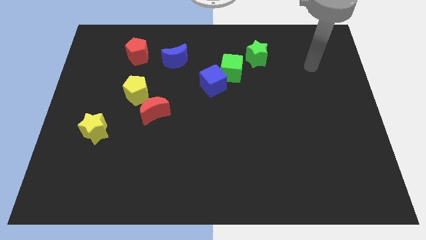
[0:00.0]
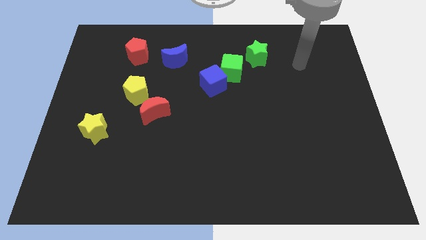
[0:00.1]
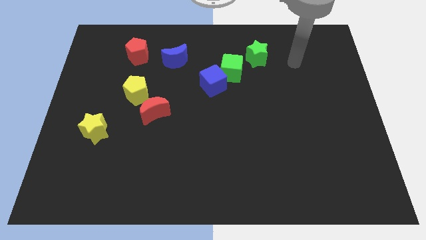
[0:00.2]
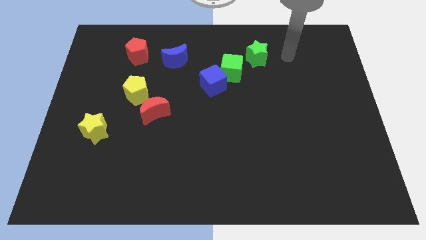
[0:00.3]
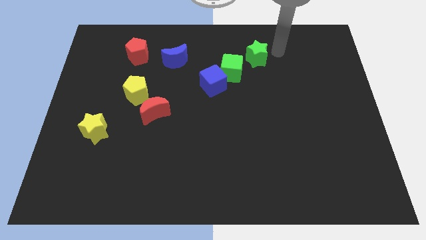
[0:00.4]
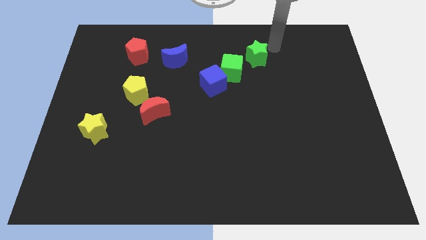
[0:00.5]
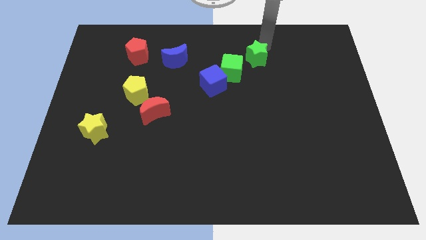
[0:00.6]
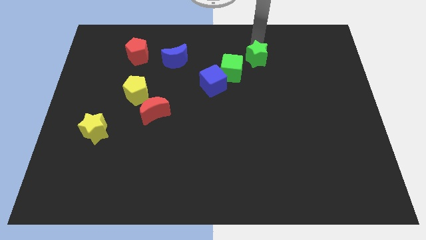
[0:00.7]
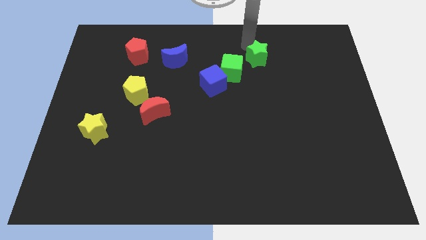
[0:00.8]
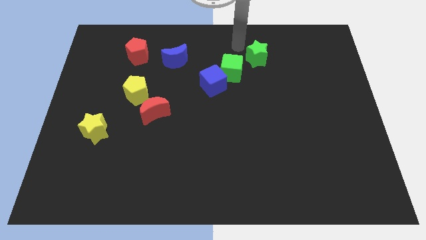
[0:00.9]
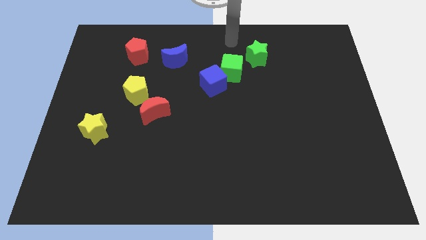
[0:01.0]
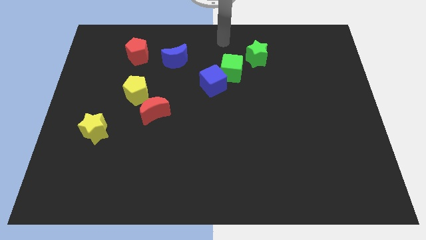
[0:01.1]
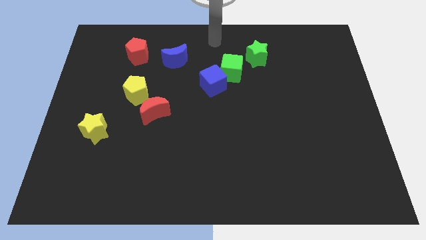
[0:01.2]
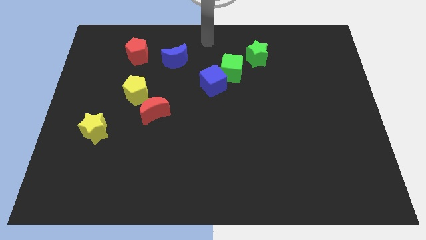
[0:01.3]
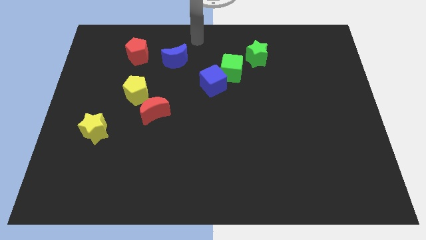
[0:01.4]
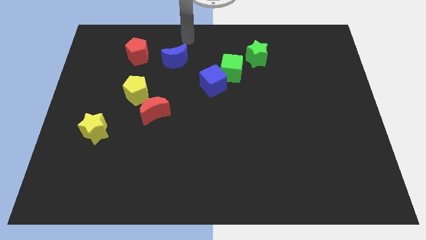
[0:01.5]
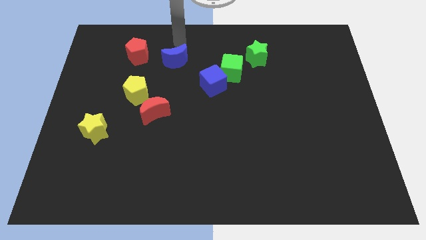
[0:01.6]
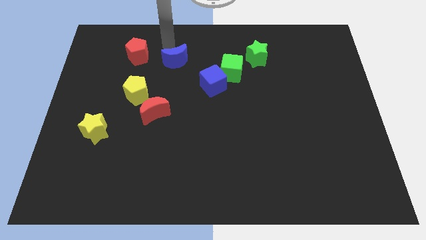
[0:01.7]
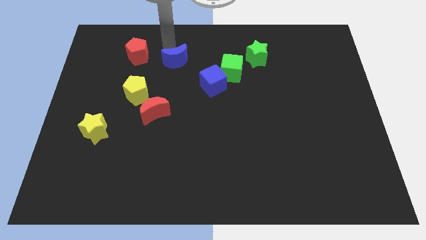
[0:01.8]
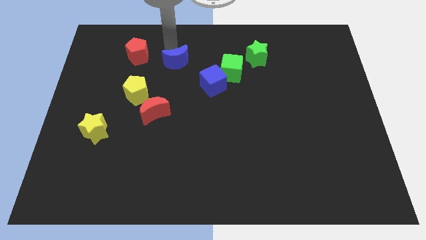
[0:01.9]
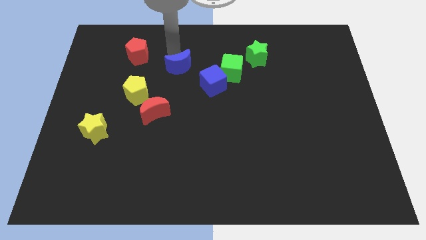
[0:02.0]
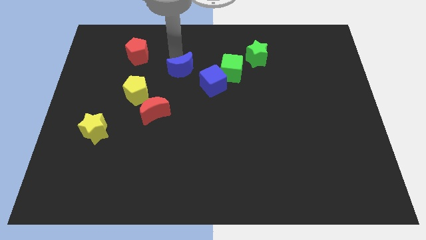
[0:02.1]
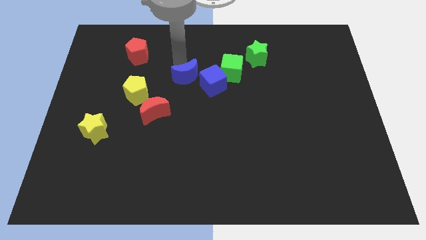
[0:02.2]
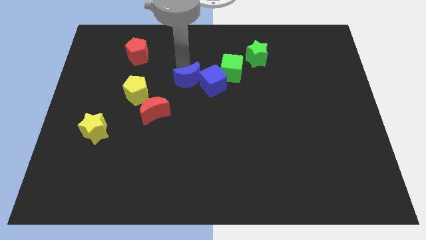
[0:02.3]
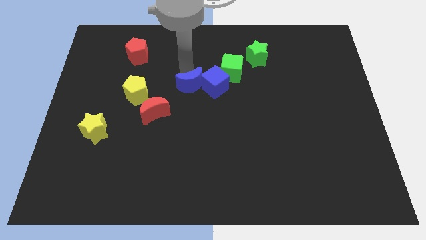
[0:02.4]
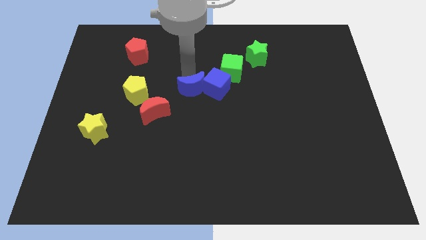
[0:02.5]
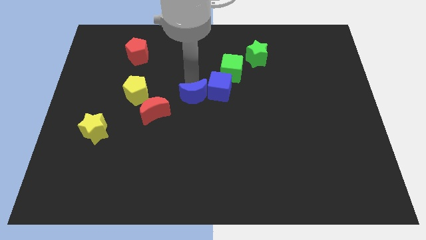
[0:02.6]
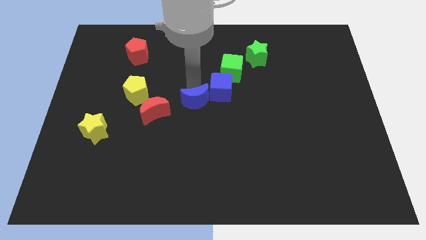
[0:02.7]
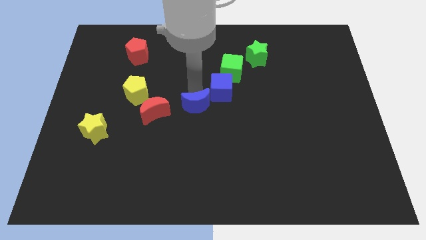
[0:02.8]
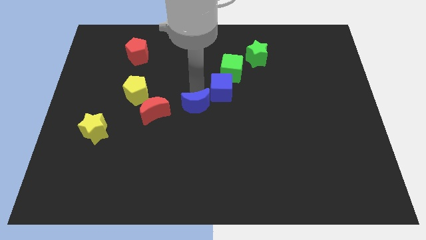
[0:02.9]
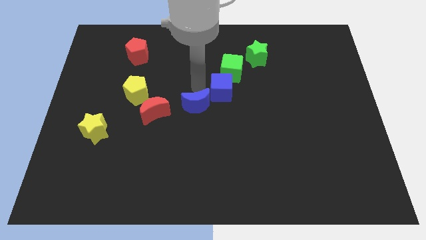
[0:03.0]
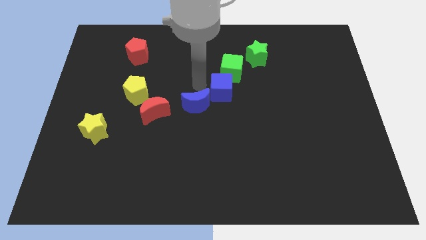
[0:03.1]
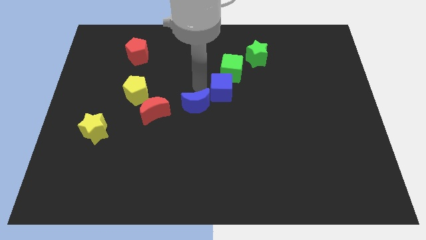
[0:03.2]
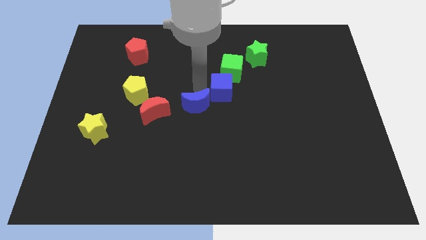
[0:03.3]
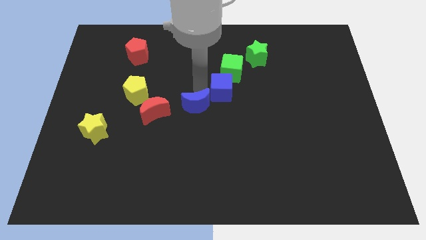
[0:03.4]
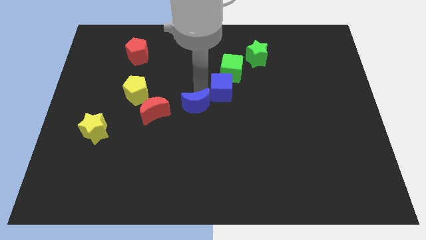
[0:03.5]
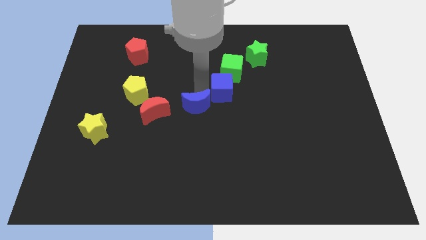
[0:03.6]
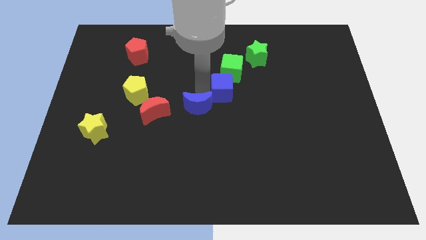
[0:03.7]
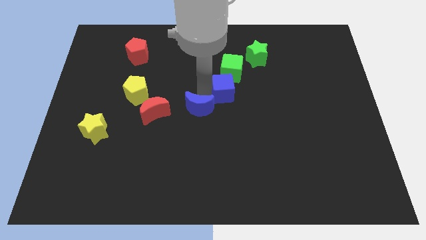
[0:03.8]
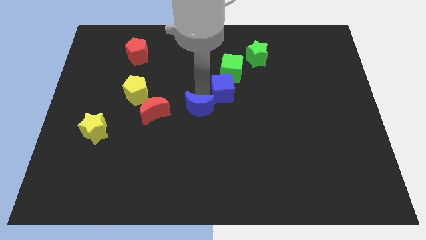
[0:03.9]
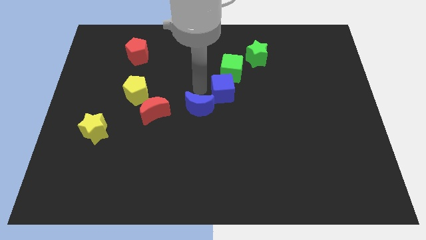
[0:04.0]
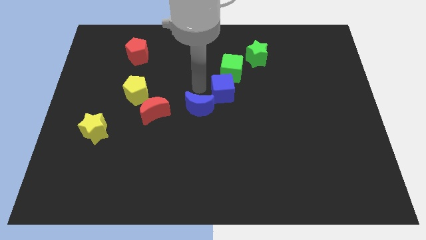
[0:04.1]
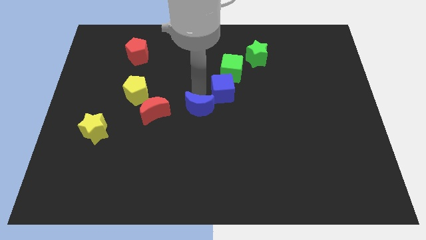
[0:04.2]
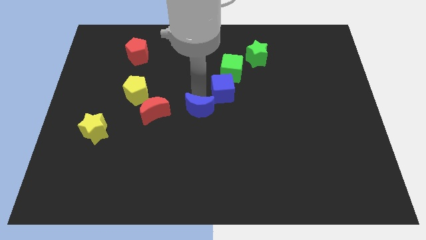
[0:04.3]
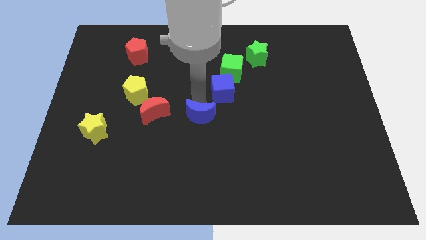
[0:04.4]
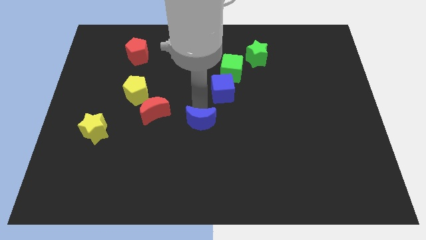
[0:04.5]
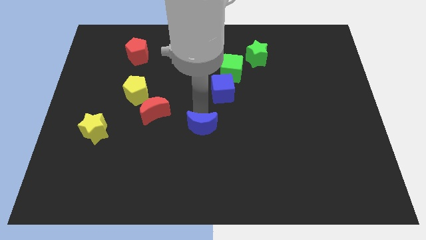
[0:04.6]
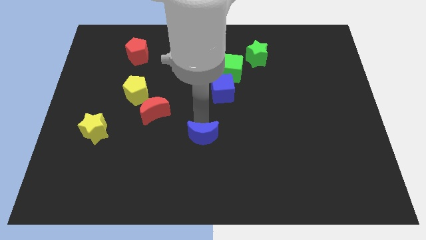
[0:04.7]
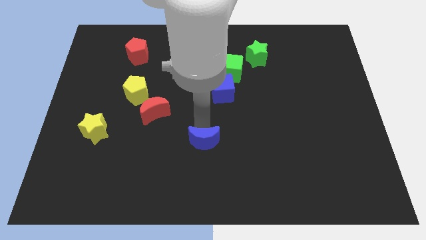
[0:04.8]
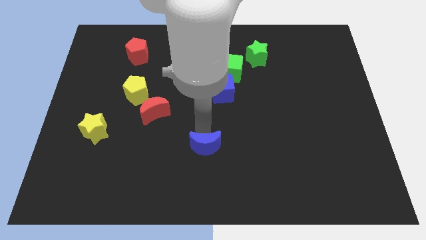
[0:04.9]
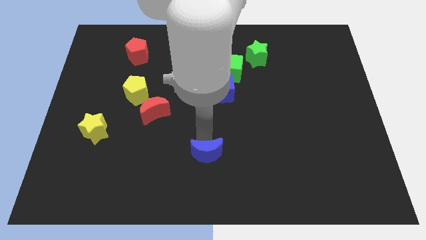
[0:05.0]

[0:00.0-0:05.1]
slide the blue moon to the bottom side

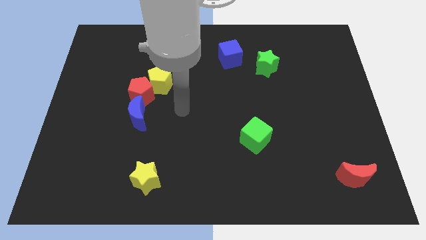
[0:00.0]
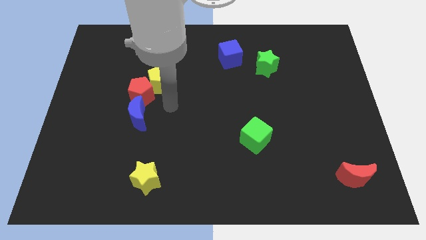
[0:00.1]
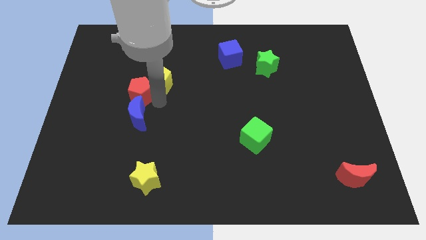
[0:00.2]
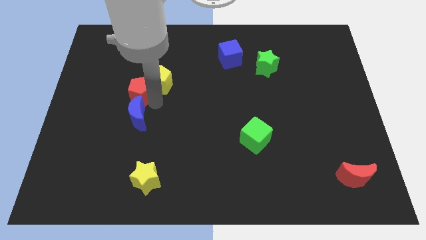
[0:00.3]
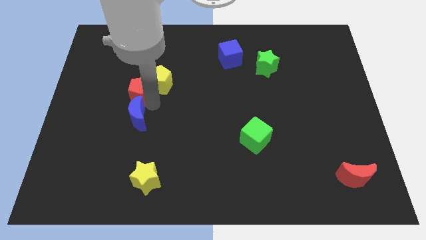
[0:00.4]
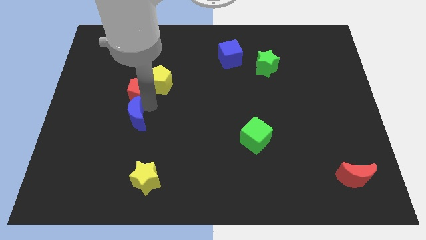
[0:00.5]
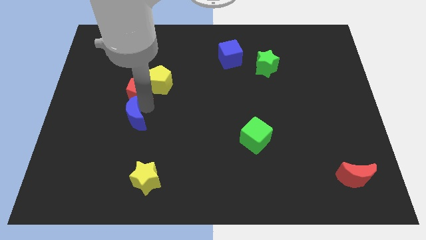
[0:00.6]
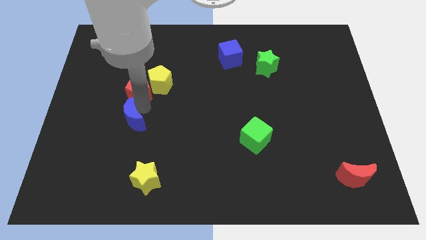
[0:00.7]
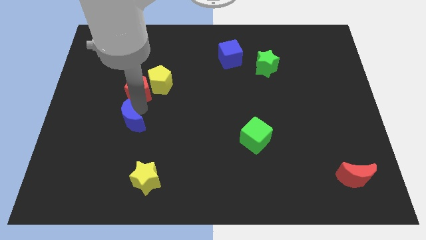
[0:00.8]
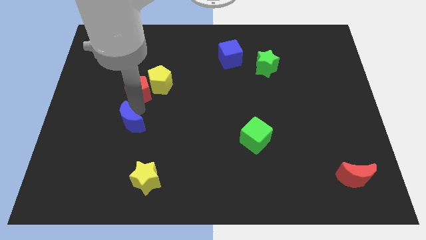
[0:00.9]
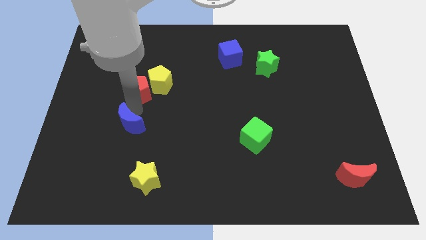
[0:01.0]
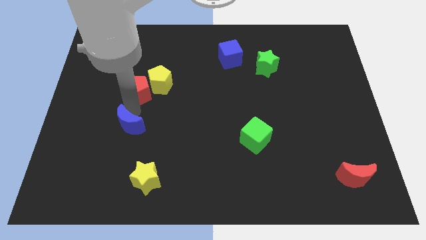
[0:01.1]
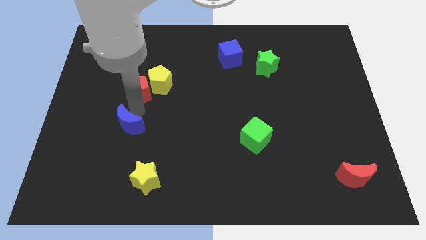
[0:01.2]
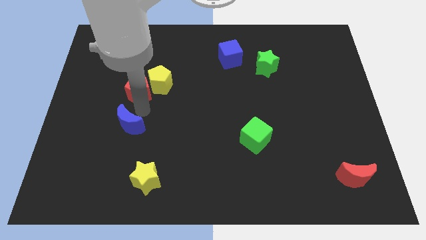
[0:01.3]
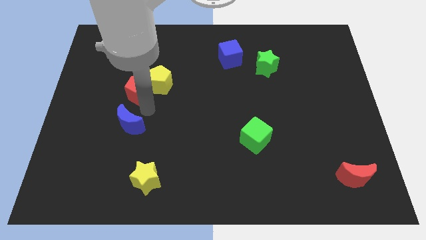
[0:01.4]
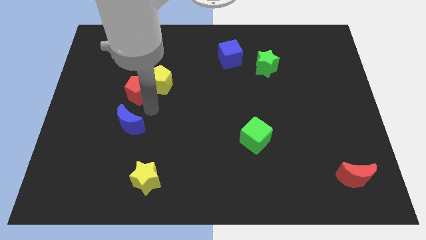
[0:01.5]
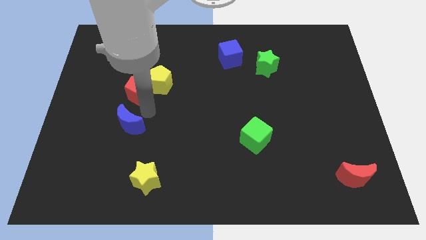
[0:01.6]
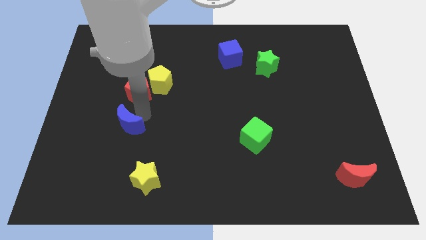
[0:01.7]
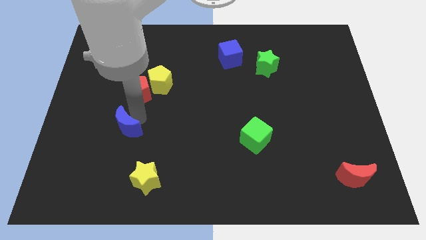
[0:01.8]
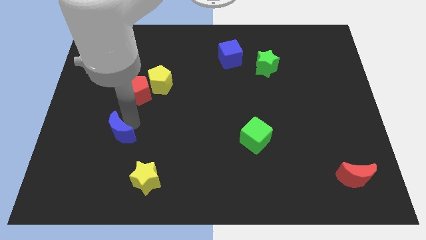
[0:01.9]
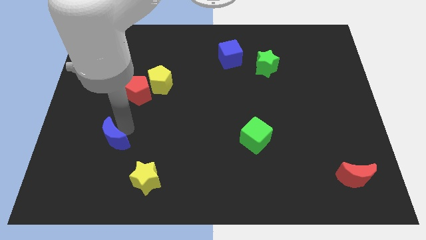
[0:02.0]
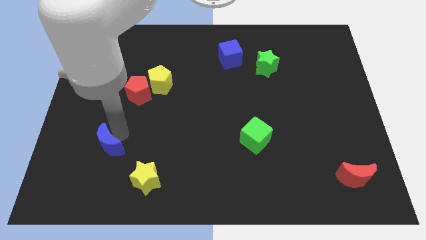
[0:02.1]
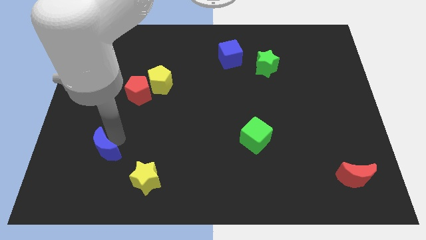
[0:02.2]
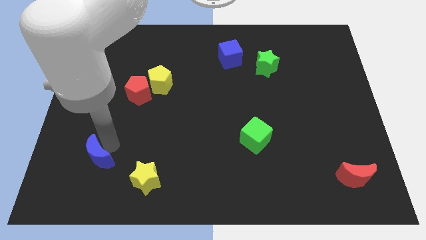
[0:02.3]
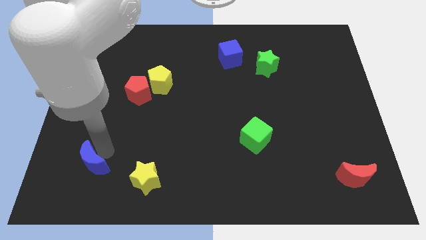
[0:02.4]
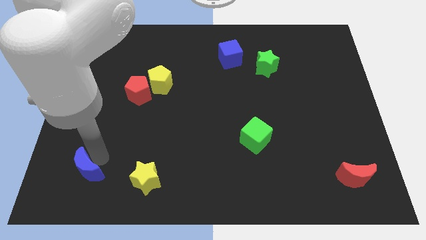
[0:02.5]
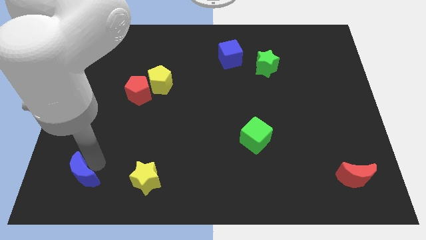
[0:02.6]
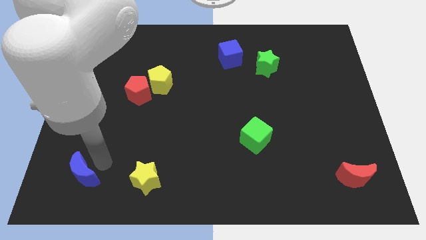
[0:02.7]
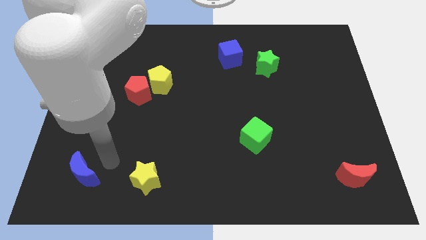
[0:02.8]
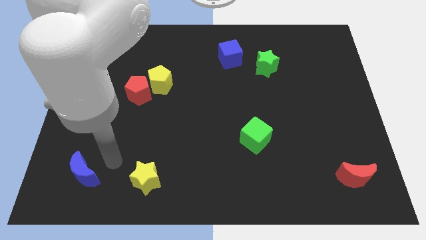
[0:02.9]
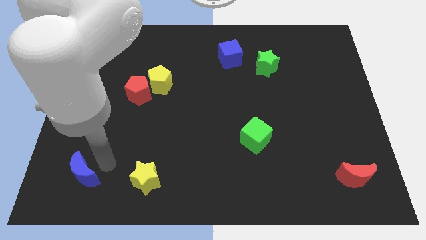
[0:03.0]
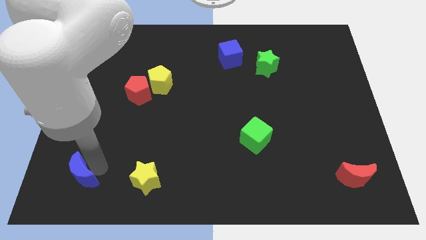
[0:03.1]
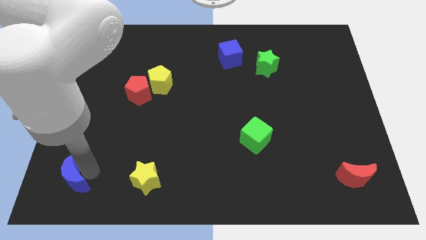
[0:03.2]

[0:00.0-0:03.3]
push the blue moon to the bottom left
